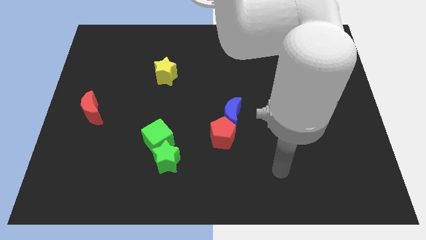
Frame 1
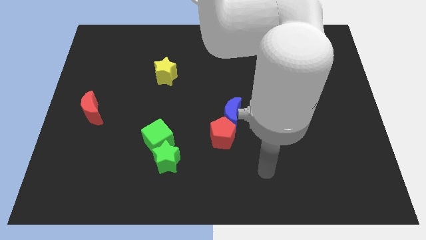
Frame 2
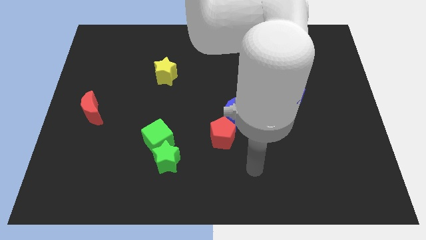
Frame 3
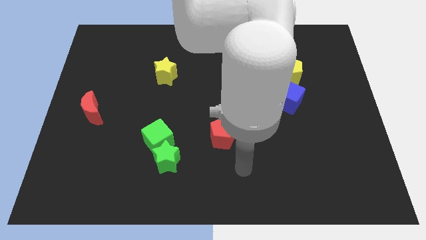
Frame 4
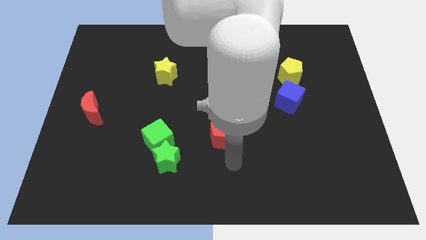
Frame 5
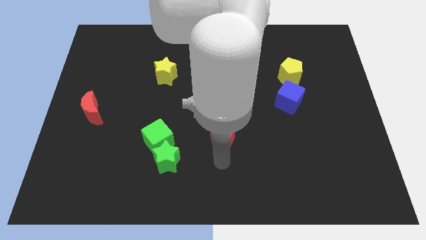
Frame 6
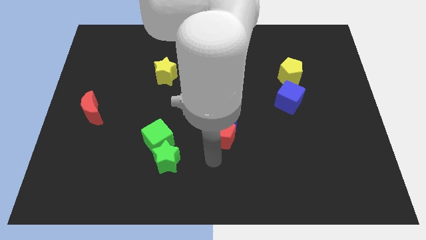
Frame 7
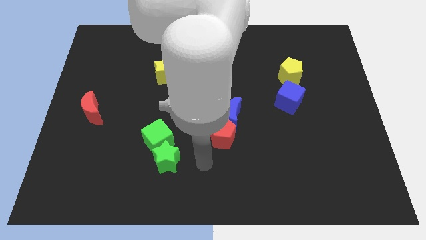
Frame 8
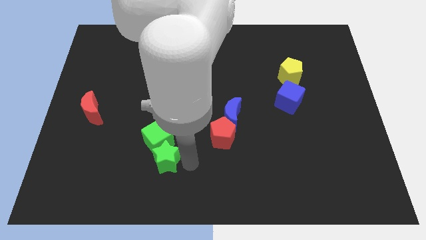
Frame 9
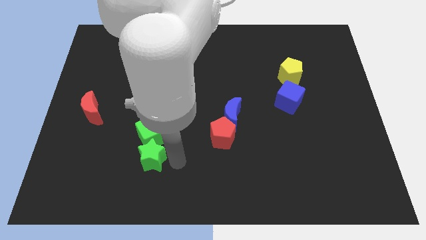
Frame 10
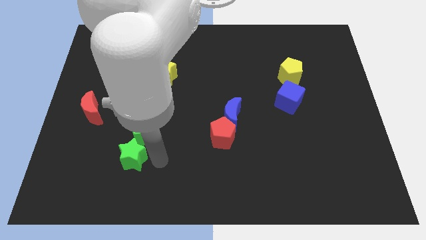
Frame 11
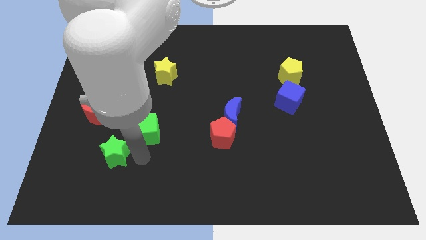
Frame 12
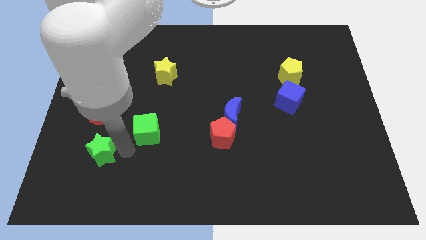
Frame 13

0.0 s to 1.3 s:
pull the green cube apart from the green star

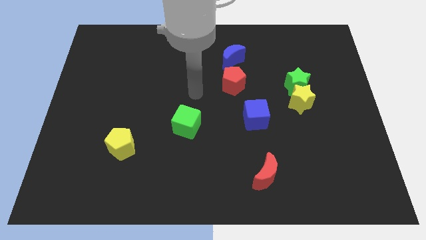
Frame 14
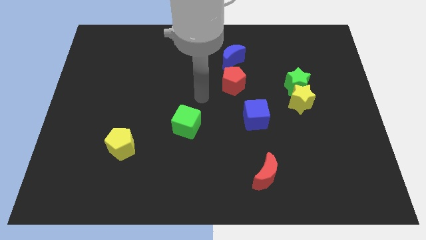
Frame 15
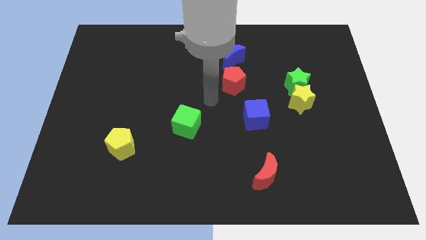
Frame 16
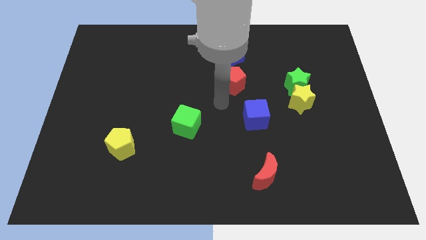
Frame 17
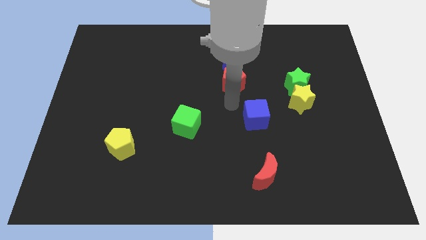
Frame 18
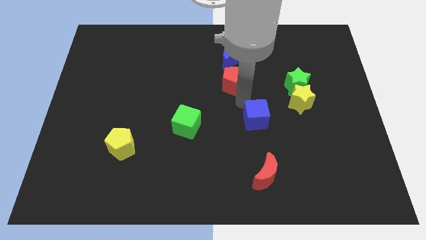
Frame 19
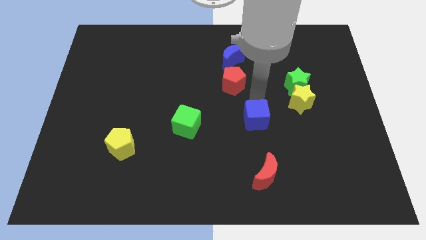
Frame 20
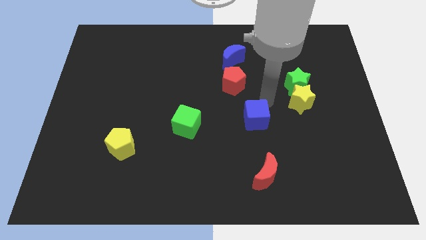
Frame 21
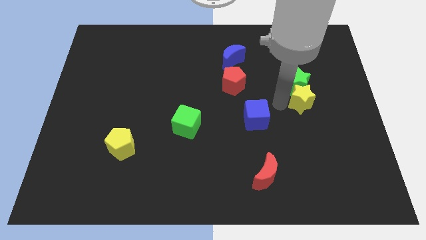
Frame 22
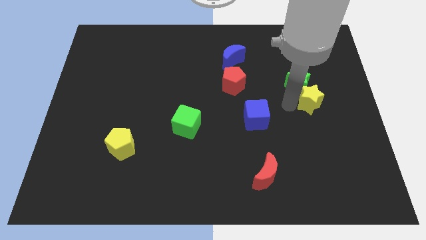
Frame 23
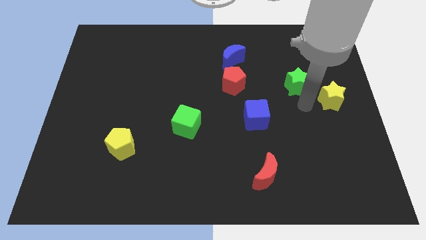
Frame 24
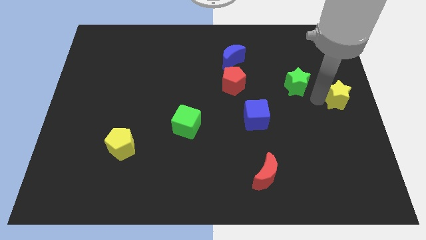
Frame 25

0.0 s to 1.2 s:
pull the green star apart from the yellow star

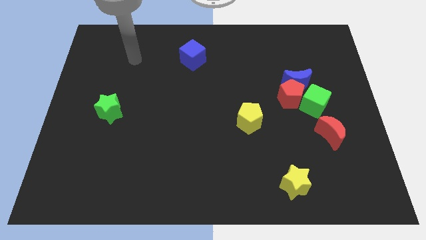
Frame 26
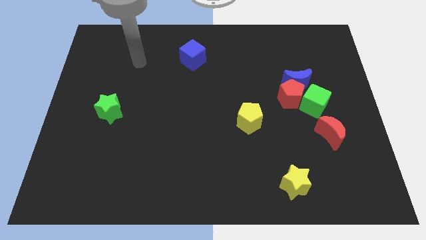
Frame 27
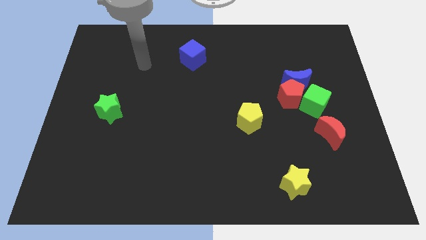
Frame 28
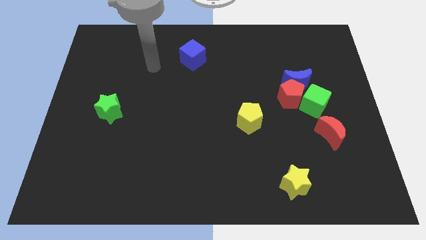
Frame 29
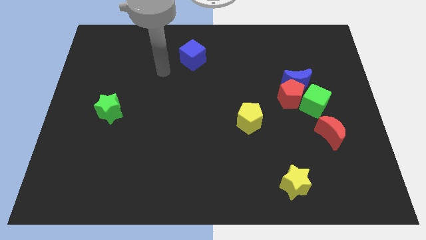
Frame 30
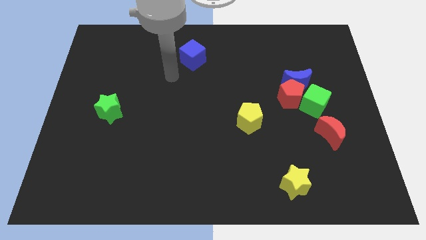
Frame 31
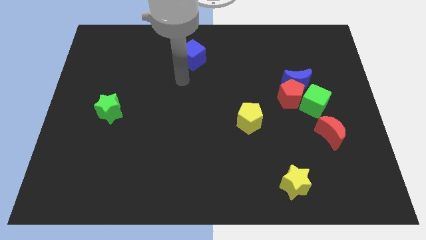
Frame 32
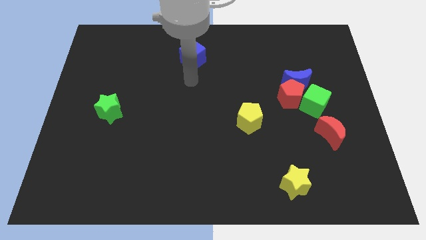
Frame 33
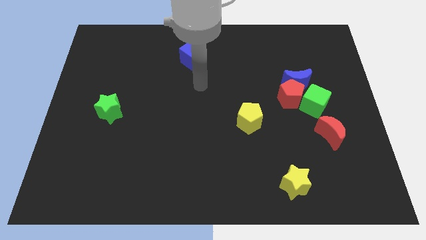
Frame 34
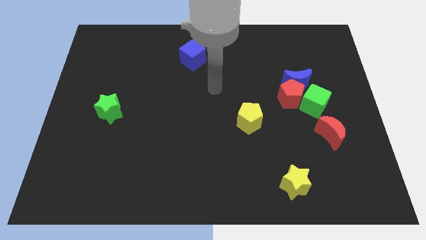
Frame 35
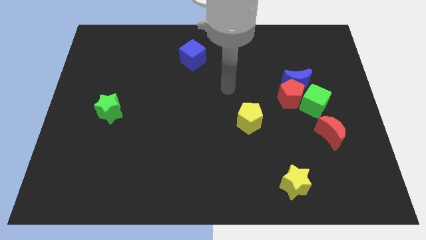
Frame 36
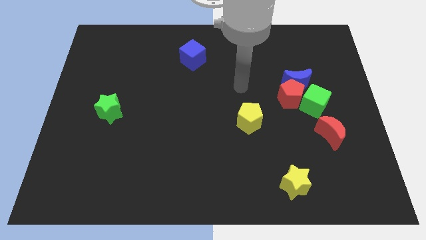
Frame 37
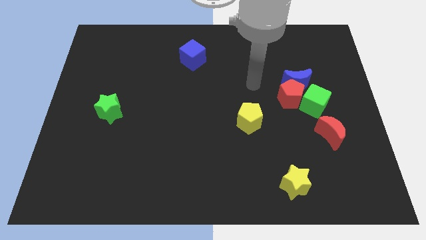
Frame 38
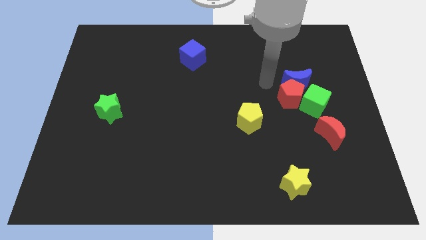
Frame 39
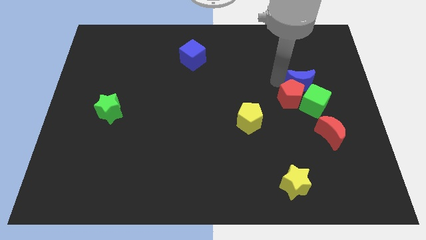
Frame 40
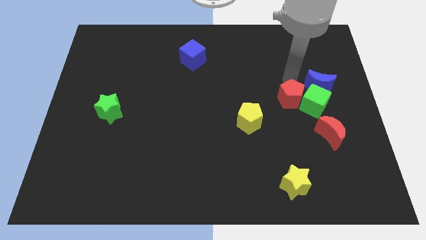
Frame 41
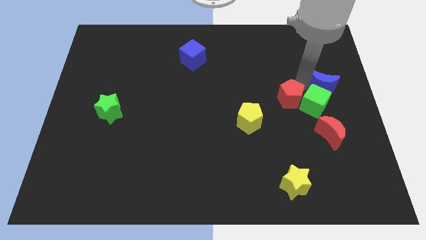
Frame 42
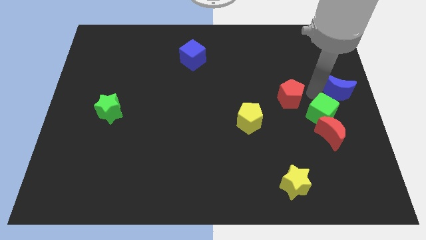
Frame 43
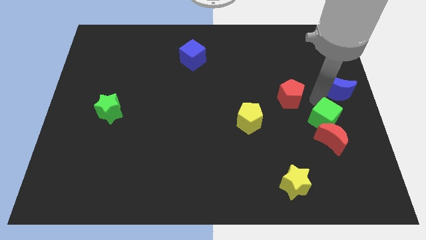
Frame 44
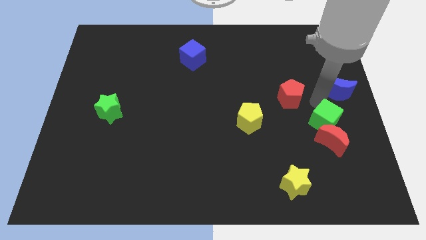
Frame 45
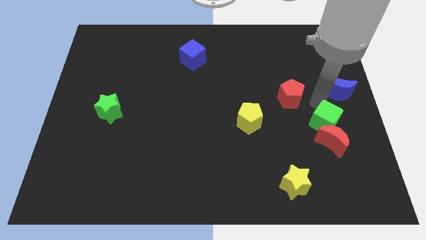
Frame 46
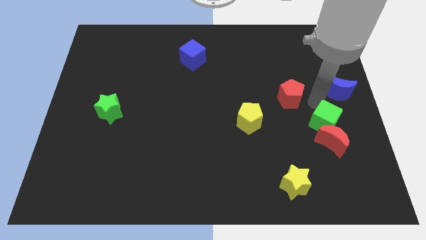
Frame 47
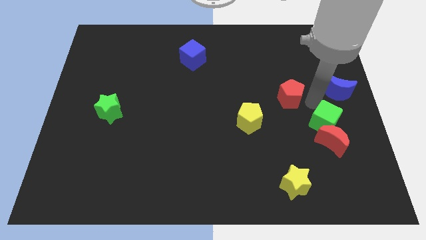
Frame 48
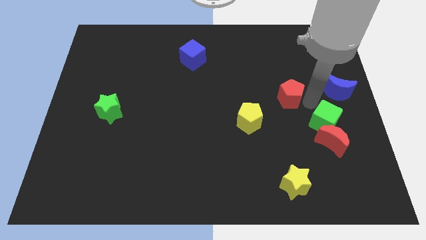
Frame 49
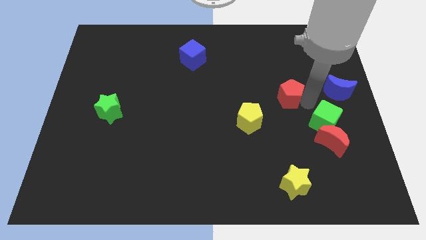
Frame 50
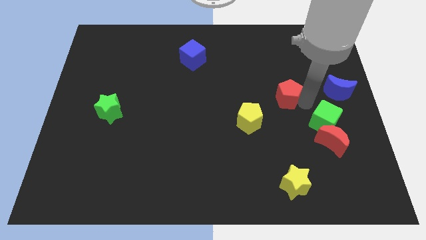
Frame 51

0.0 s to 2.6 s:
pull the red pentagon apart from the blue moon and green cube

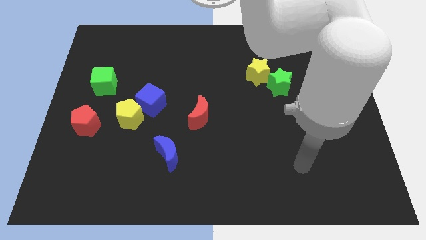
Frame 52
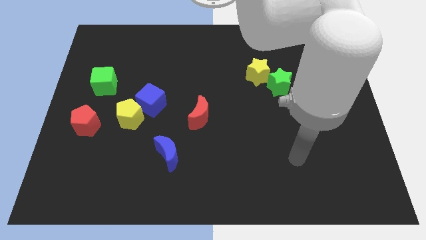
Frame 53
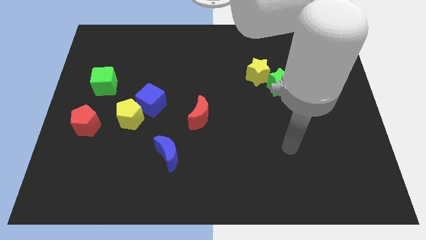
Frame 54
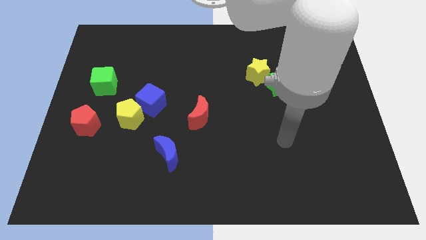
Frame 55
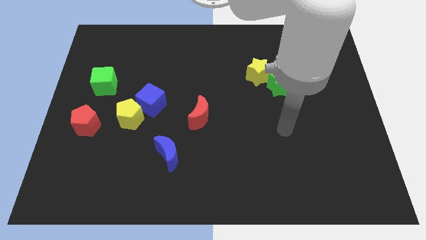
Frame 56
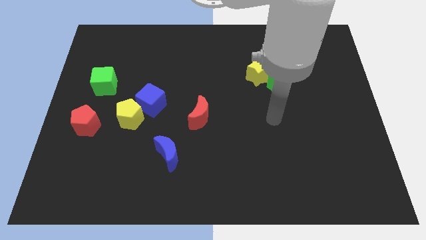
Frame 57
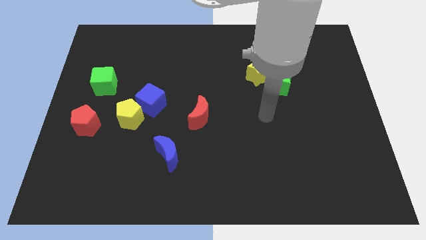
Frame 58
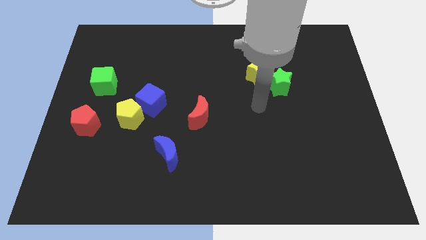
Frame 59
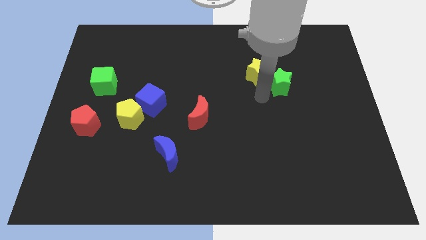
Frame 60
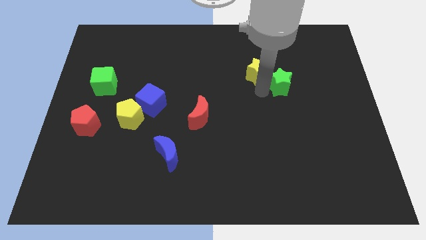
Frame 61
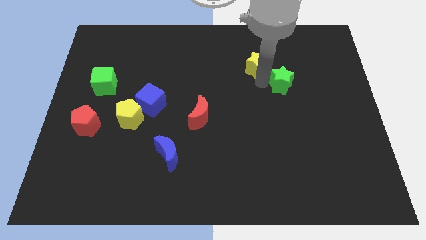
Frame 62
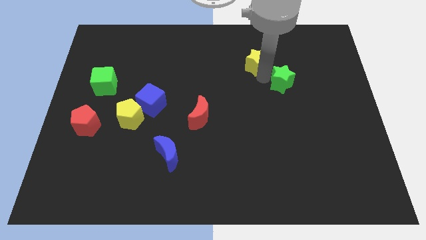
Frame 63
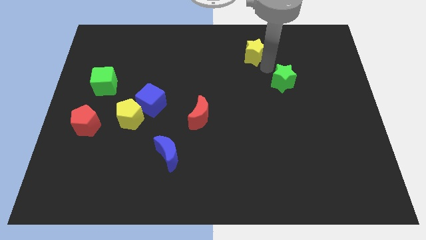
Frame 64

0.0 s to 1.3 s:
move the green star away from the yellow star

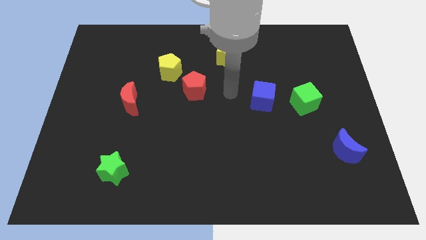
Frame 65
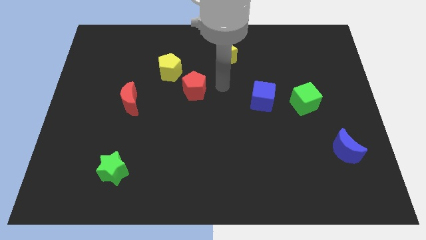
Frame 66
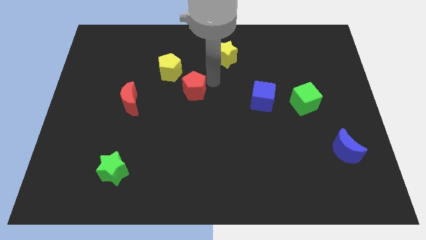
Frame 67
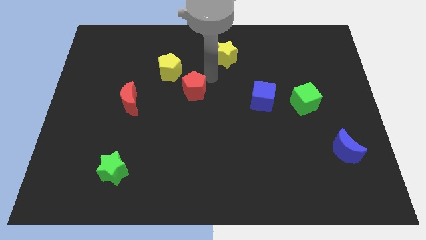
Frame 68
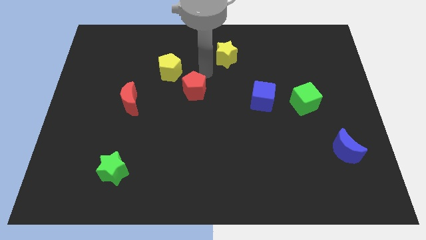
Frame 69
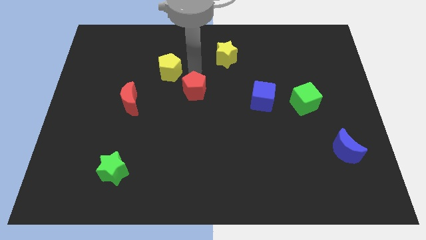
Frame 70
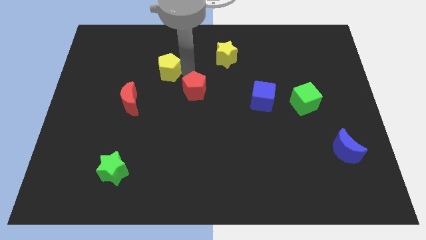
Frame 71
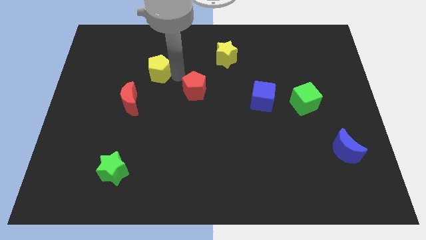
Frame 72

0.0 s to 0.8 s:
separate the red pentagon from the yellow pentagon

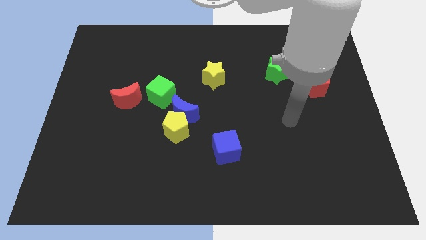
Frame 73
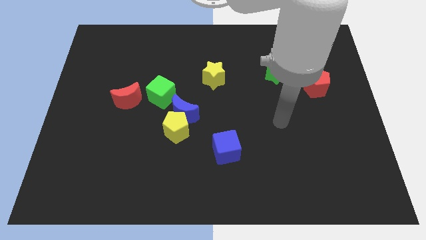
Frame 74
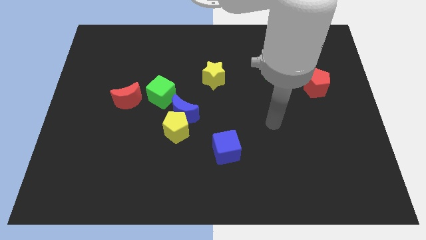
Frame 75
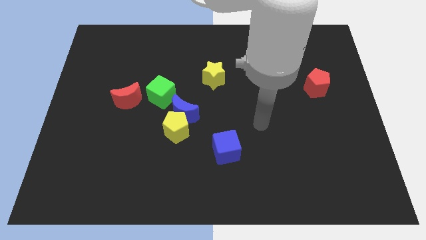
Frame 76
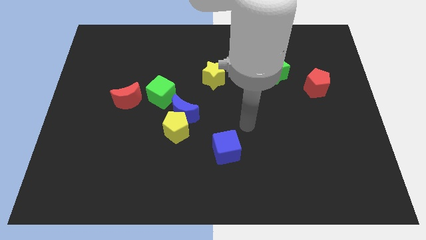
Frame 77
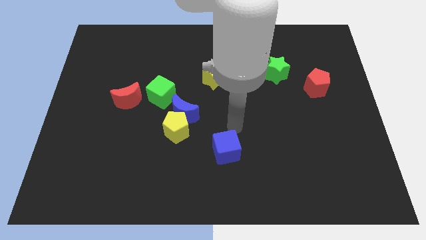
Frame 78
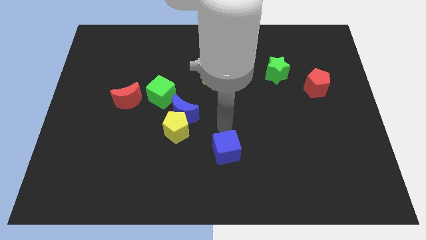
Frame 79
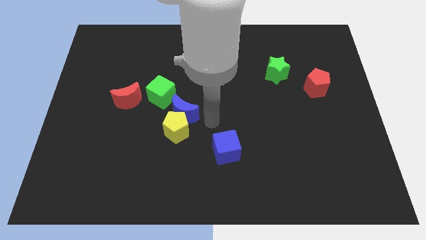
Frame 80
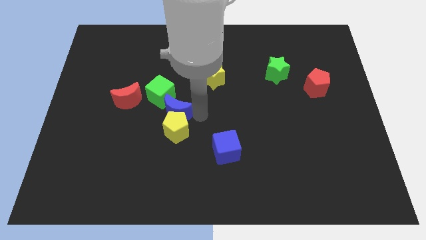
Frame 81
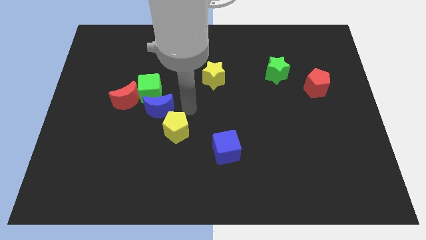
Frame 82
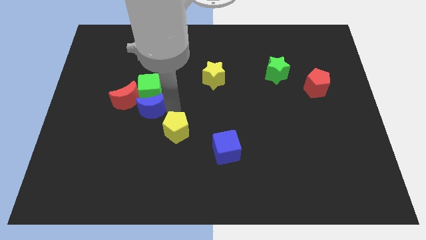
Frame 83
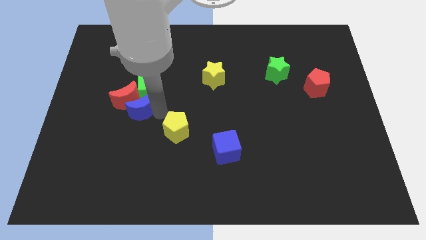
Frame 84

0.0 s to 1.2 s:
pull the yellow pentagon apart from the blue moon

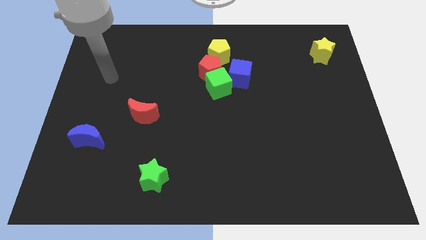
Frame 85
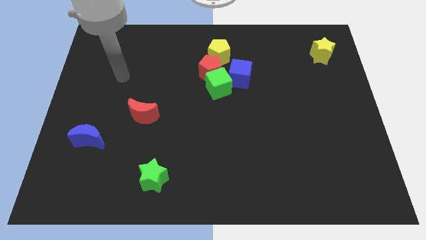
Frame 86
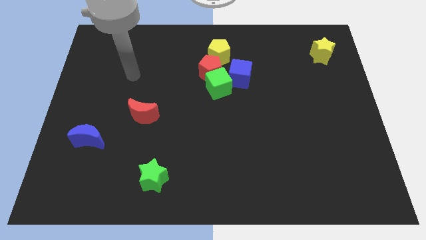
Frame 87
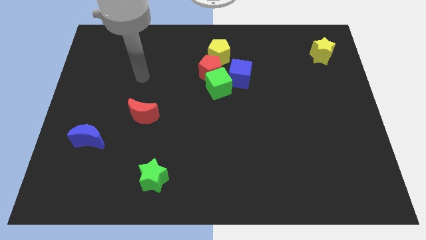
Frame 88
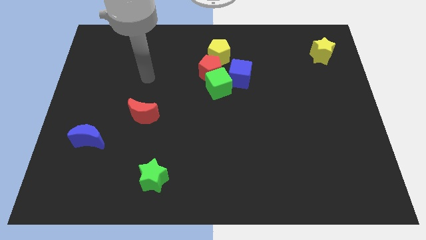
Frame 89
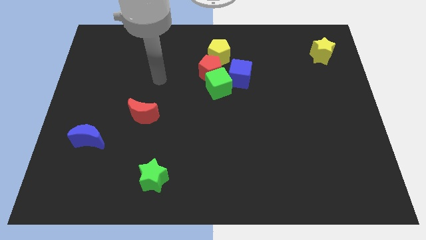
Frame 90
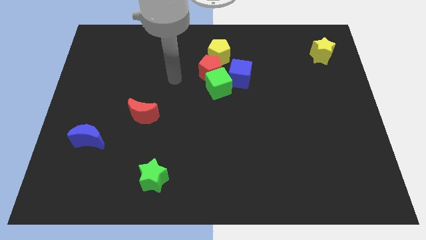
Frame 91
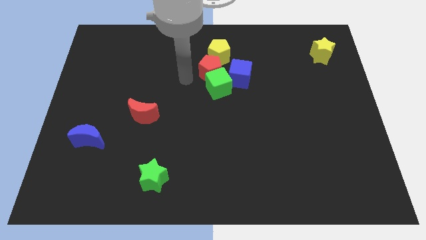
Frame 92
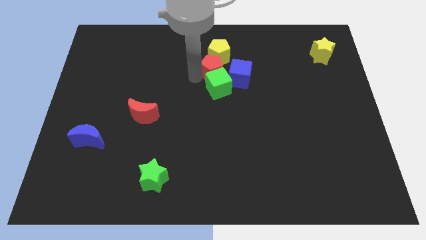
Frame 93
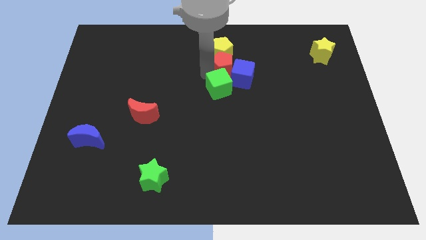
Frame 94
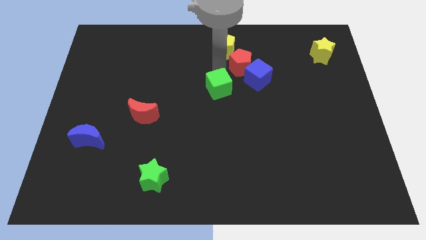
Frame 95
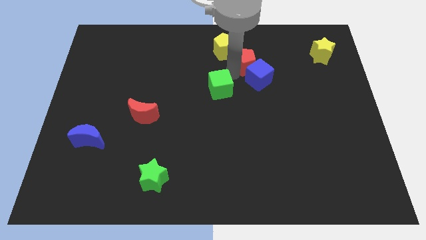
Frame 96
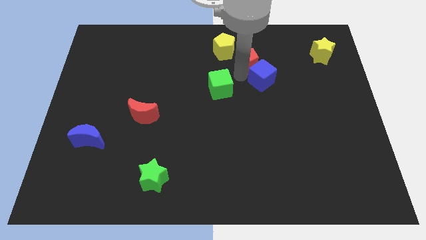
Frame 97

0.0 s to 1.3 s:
move the green cube away from the red pentagon and blue cube
